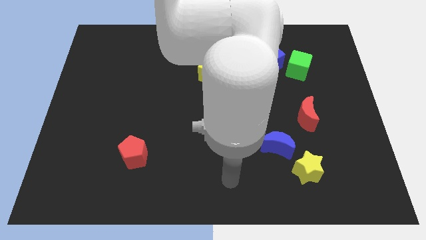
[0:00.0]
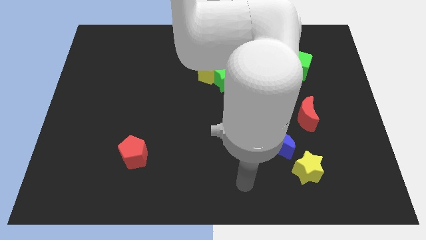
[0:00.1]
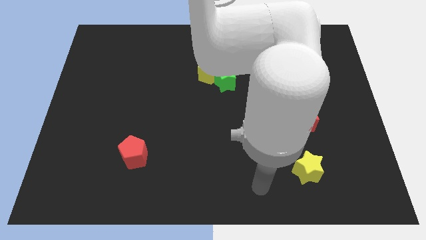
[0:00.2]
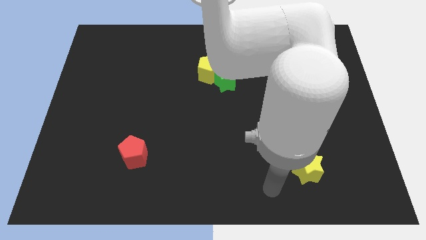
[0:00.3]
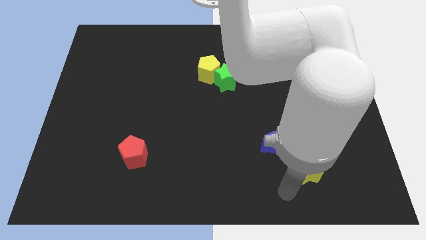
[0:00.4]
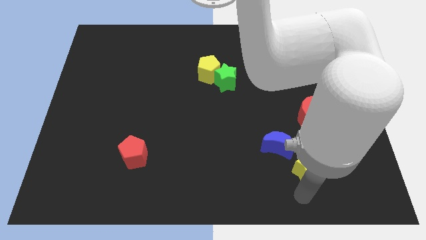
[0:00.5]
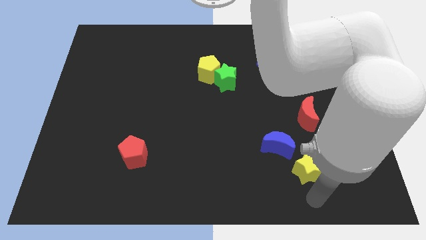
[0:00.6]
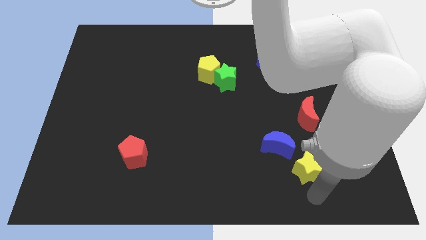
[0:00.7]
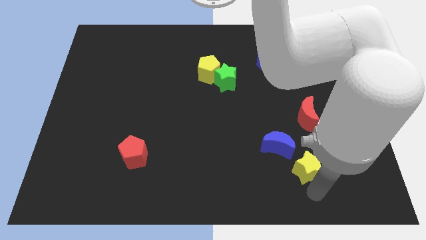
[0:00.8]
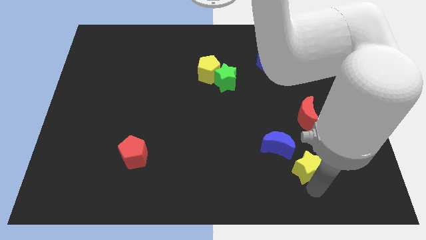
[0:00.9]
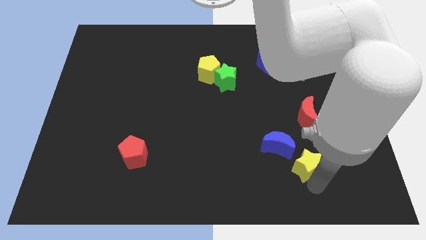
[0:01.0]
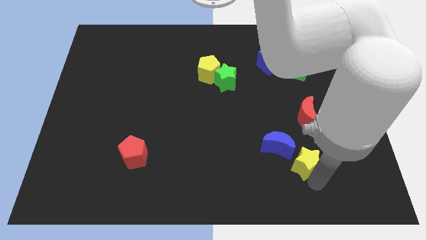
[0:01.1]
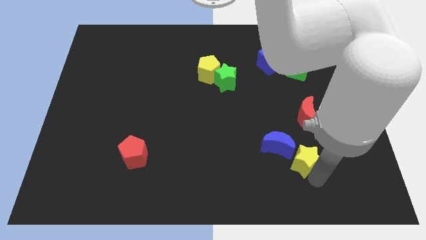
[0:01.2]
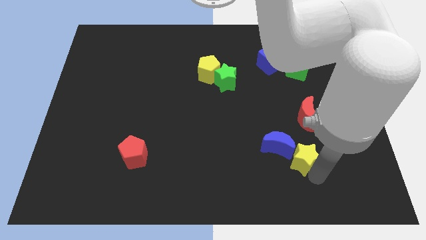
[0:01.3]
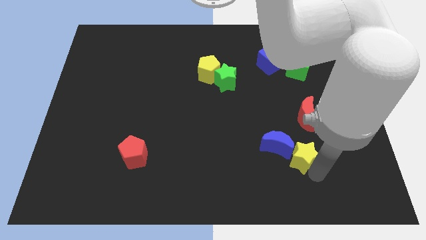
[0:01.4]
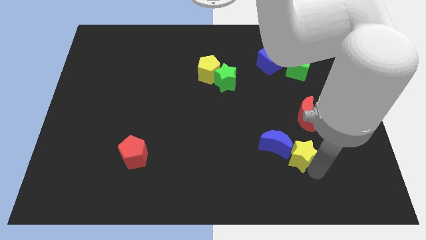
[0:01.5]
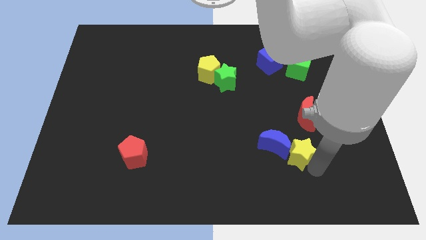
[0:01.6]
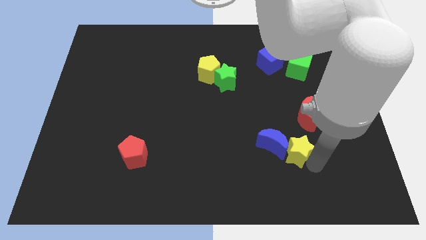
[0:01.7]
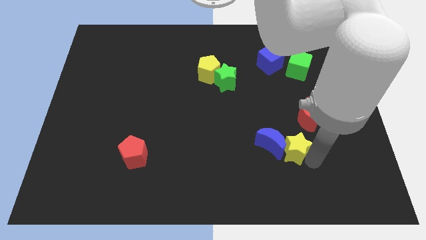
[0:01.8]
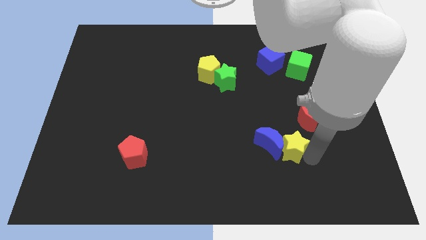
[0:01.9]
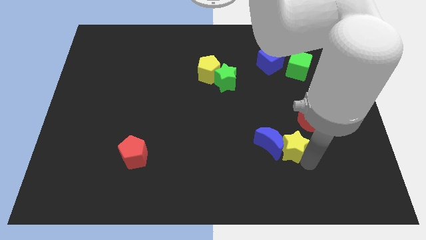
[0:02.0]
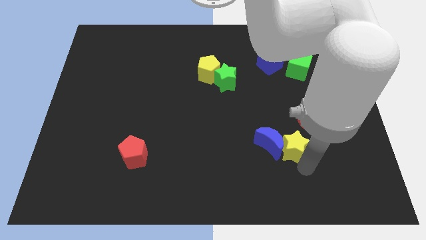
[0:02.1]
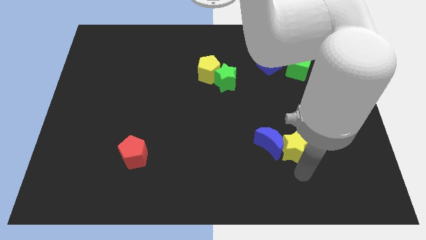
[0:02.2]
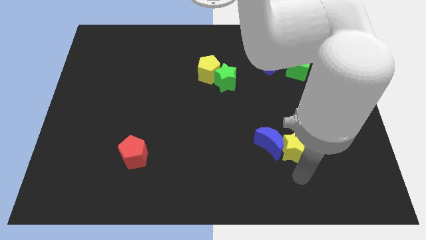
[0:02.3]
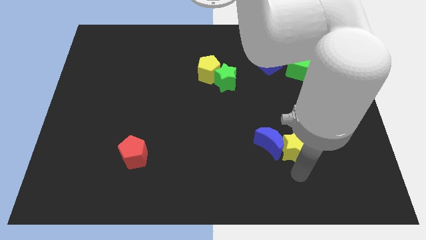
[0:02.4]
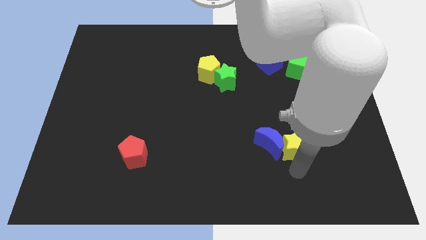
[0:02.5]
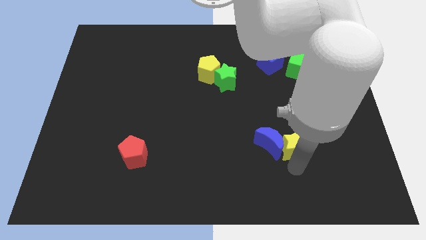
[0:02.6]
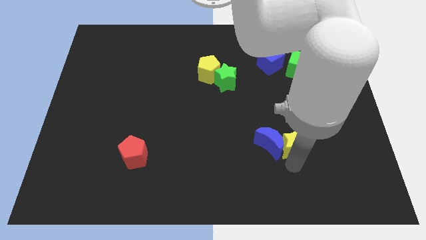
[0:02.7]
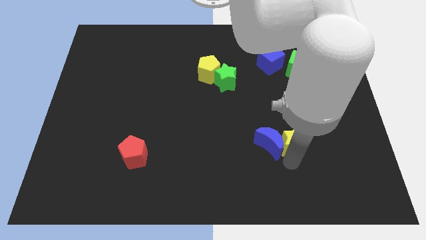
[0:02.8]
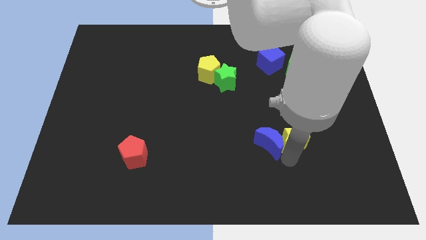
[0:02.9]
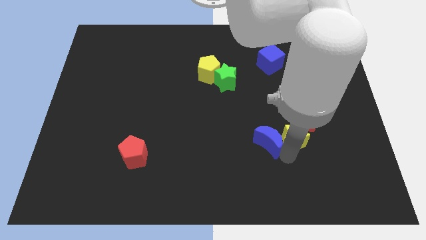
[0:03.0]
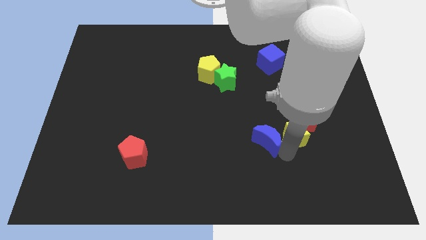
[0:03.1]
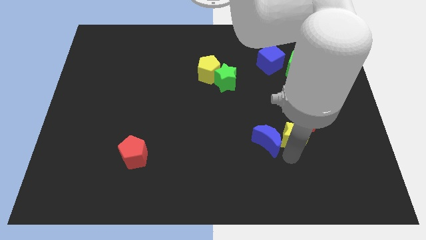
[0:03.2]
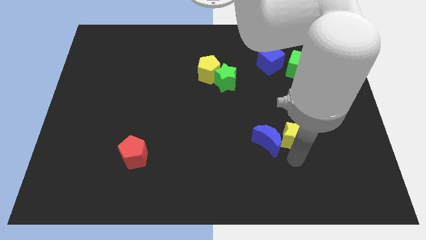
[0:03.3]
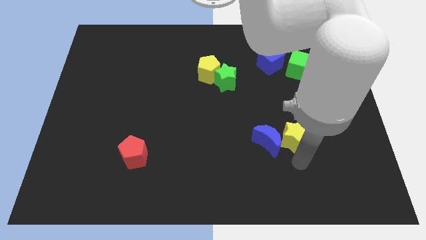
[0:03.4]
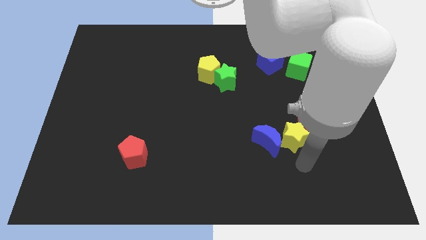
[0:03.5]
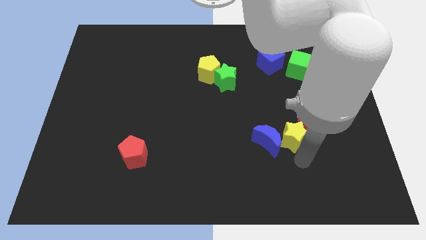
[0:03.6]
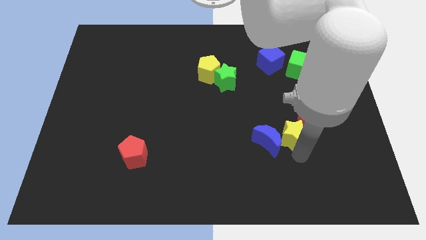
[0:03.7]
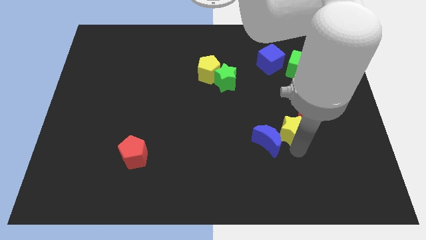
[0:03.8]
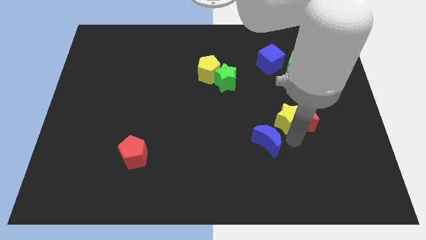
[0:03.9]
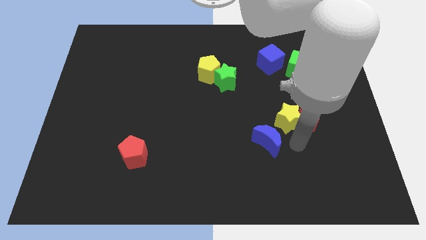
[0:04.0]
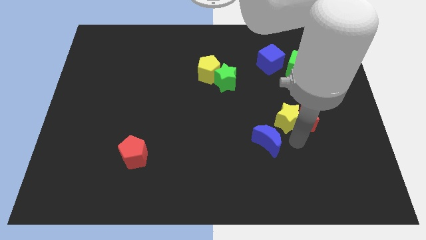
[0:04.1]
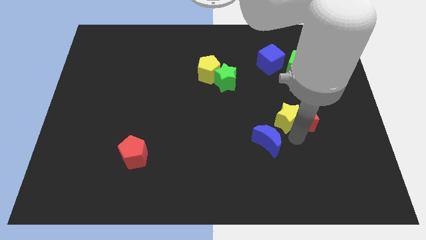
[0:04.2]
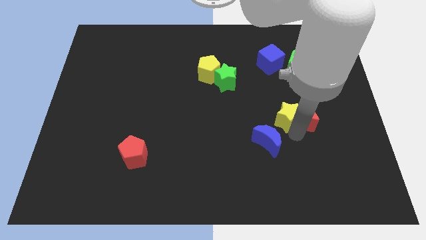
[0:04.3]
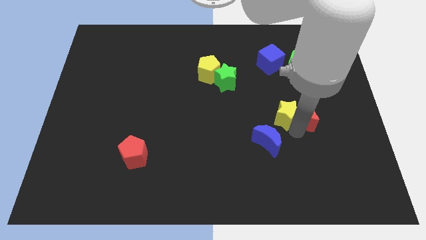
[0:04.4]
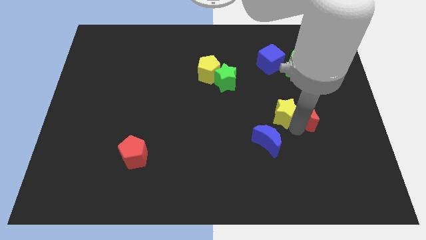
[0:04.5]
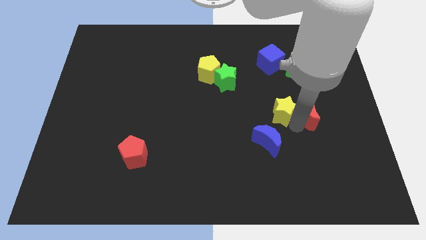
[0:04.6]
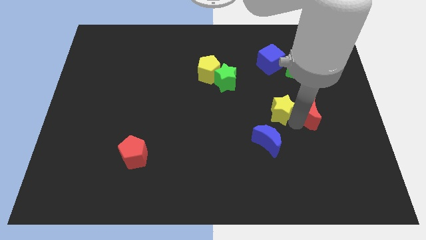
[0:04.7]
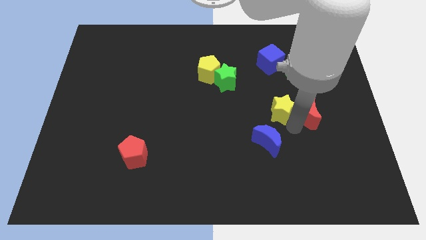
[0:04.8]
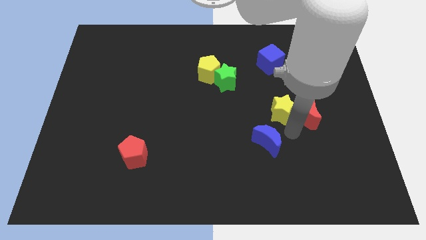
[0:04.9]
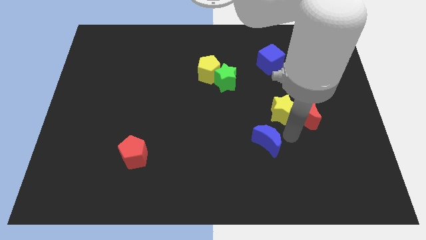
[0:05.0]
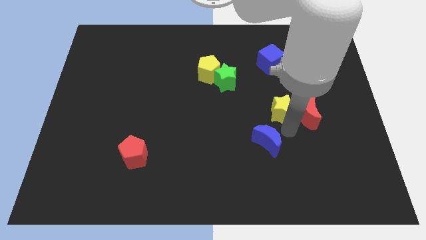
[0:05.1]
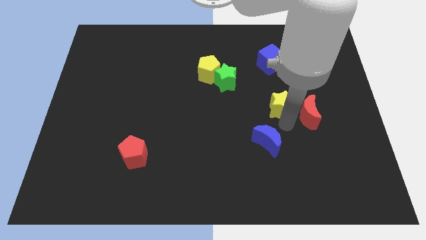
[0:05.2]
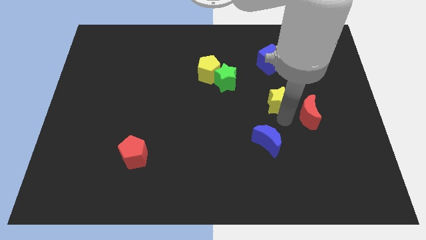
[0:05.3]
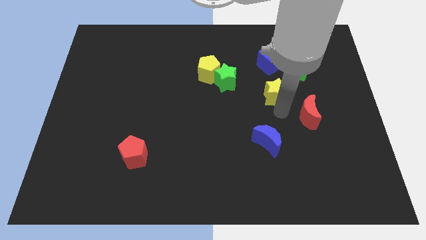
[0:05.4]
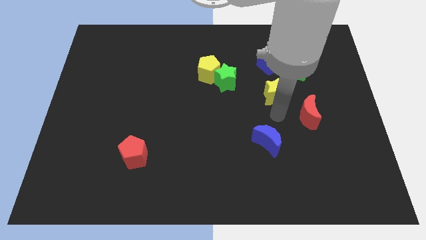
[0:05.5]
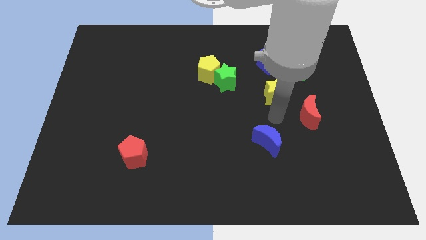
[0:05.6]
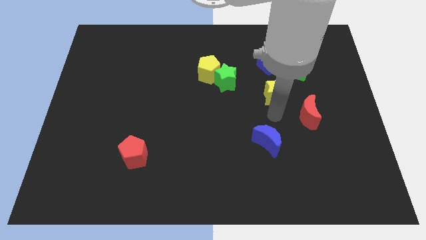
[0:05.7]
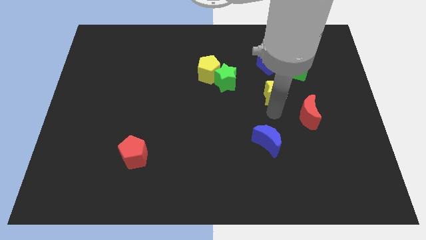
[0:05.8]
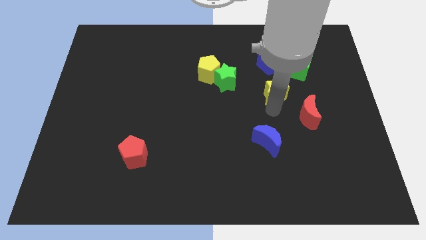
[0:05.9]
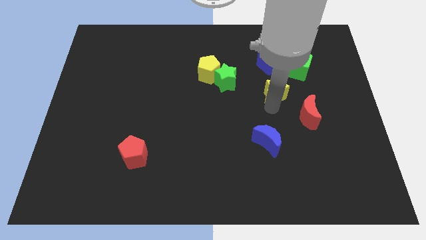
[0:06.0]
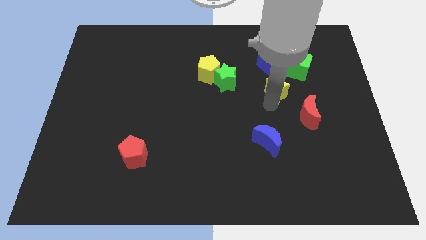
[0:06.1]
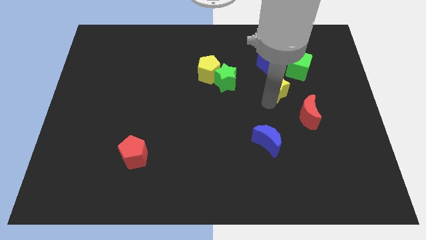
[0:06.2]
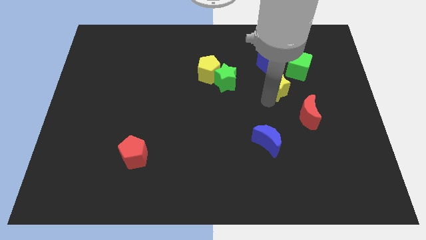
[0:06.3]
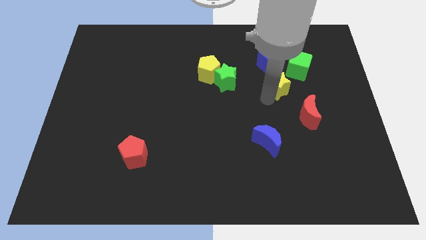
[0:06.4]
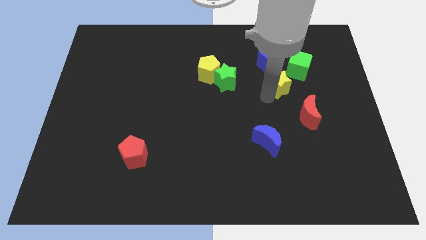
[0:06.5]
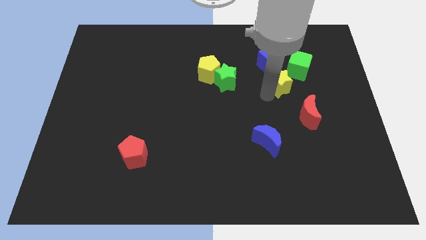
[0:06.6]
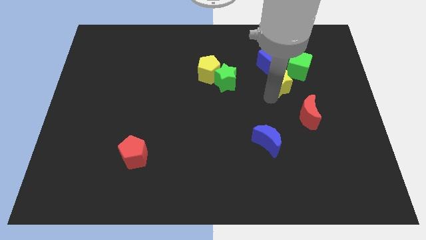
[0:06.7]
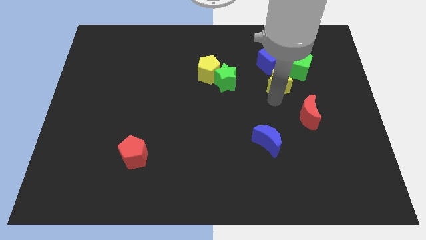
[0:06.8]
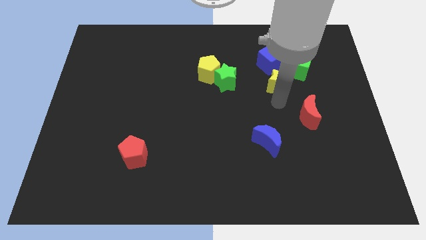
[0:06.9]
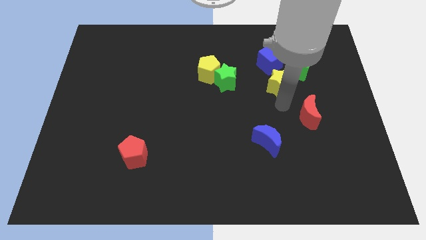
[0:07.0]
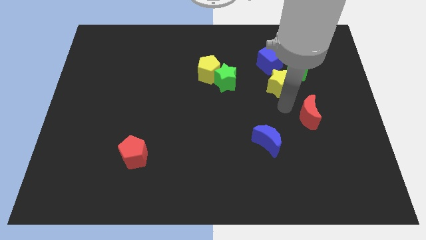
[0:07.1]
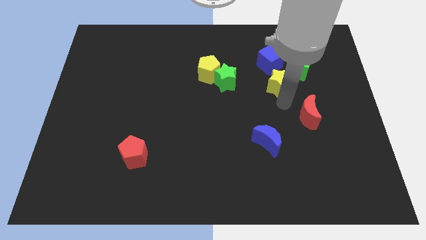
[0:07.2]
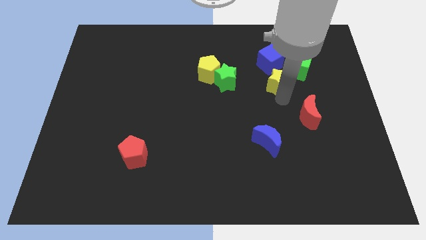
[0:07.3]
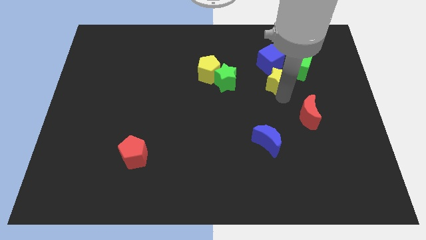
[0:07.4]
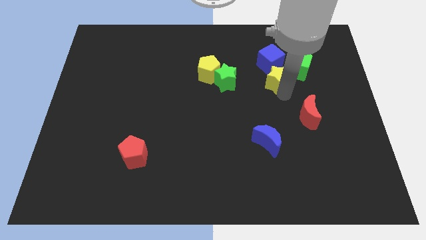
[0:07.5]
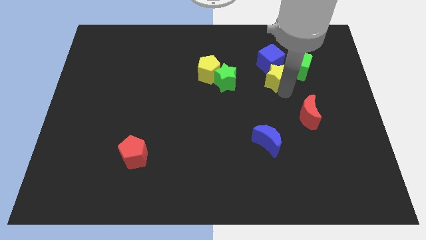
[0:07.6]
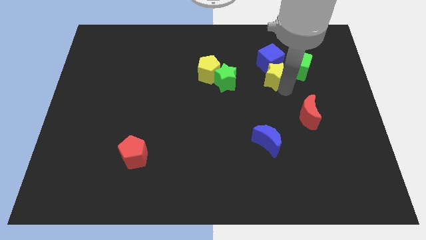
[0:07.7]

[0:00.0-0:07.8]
push the yellow star to the blue cube
